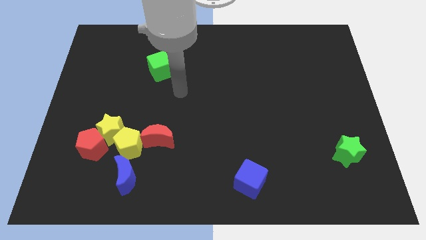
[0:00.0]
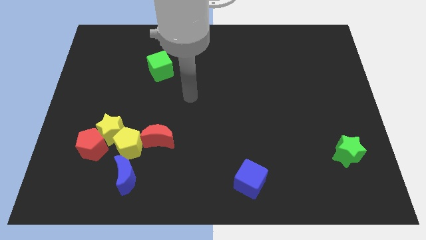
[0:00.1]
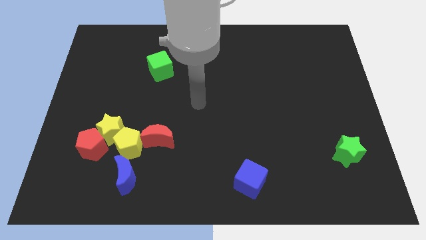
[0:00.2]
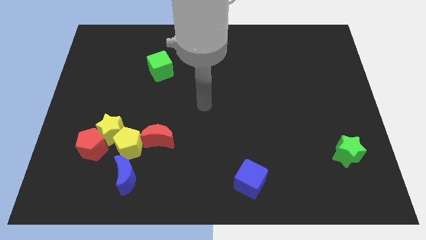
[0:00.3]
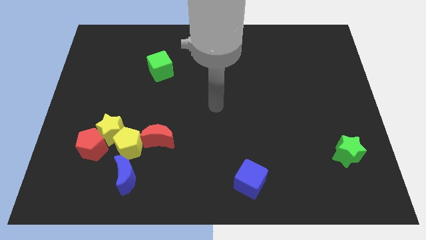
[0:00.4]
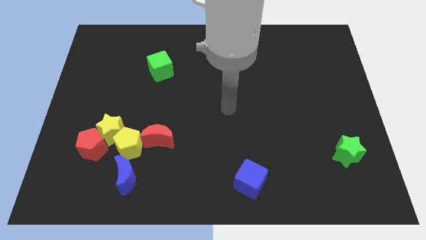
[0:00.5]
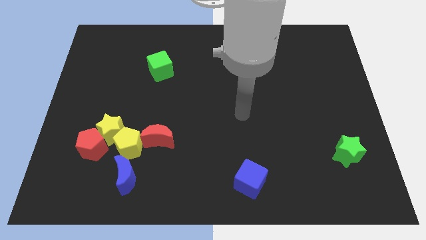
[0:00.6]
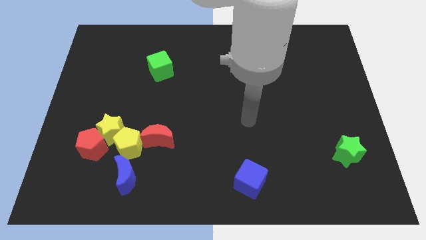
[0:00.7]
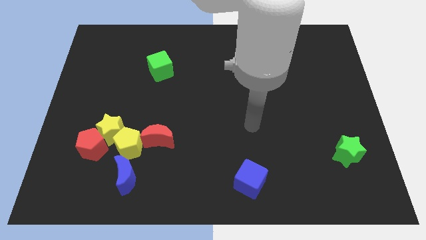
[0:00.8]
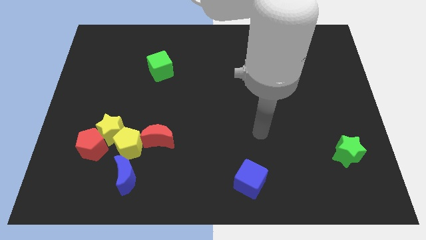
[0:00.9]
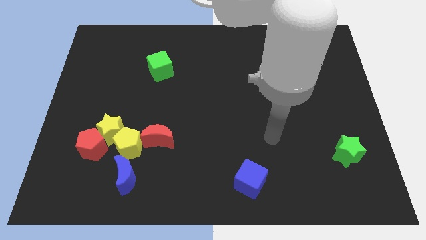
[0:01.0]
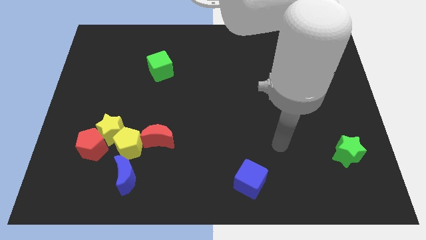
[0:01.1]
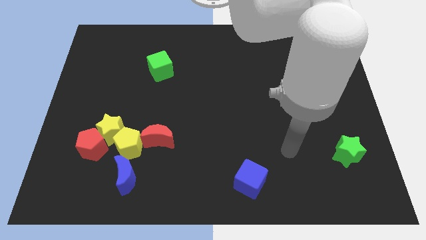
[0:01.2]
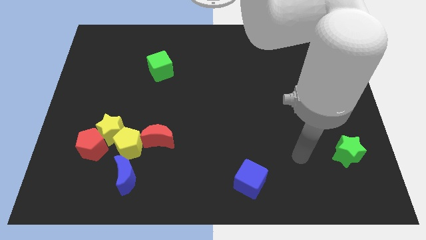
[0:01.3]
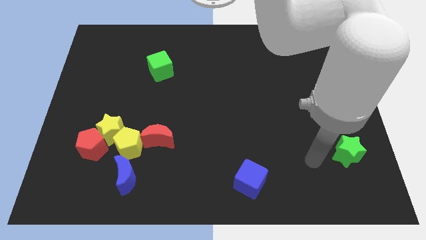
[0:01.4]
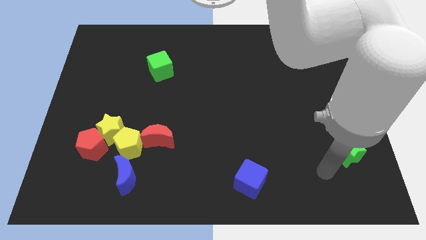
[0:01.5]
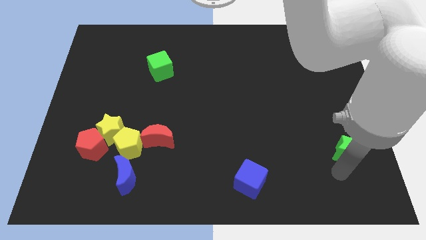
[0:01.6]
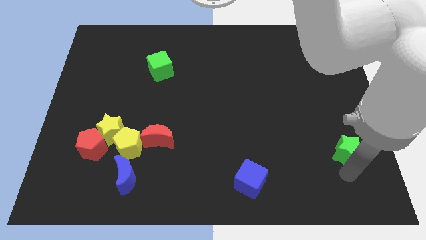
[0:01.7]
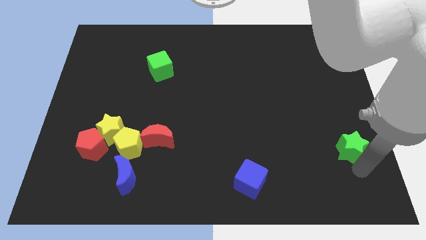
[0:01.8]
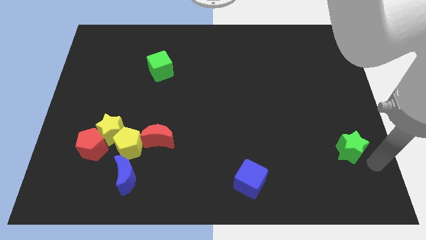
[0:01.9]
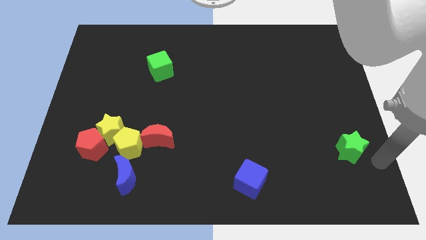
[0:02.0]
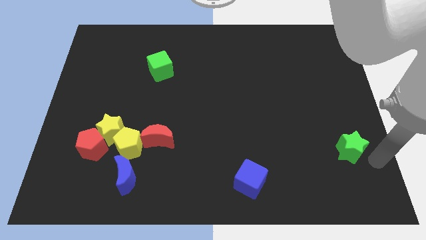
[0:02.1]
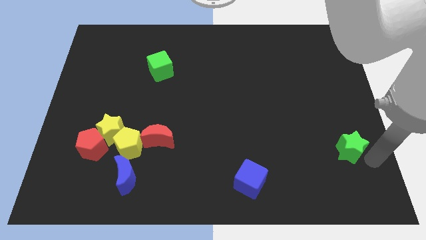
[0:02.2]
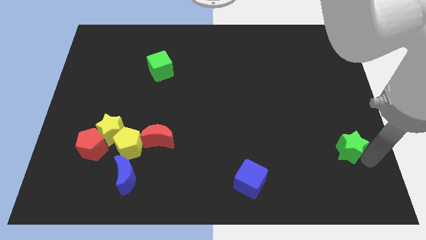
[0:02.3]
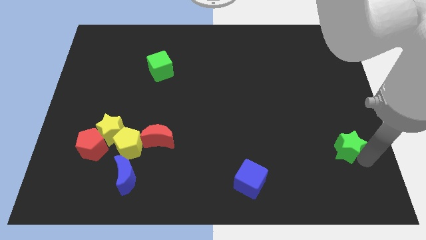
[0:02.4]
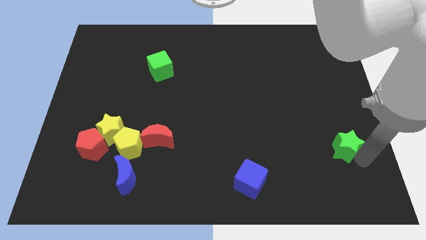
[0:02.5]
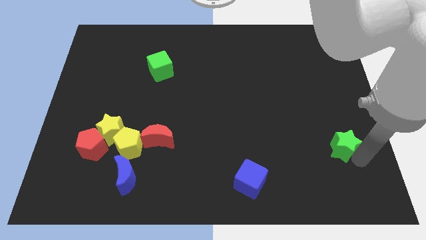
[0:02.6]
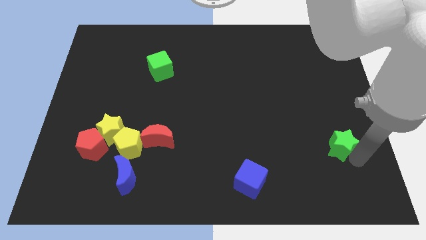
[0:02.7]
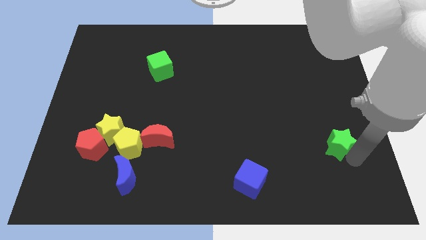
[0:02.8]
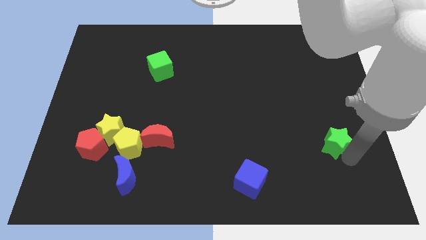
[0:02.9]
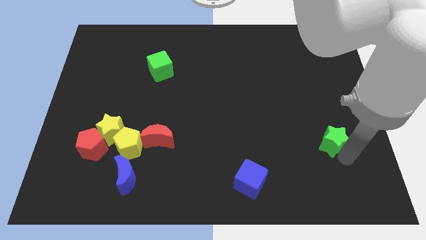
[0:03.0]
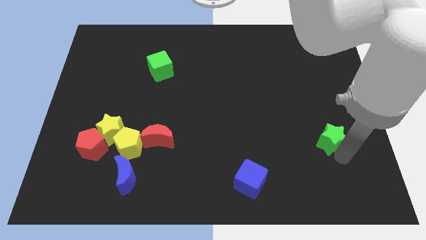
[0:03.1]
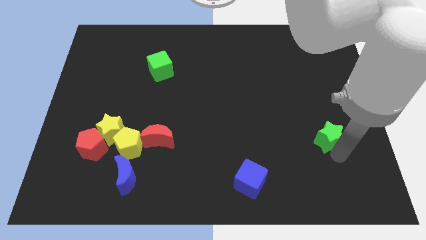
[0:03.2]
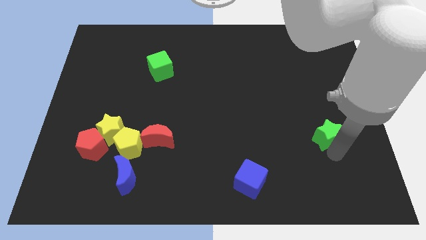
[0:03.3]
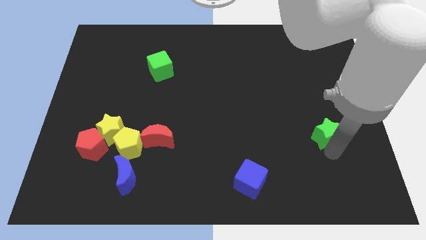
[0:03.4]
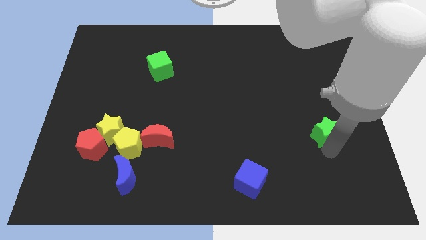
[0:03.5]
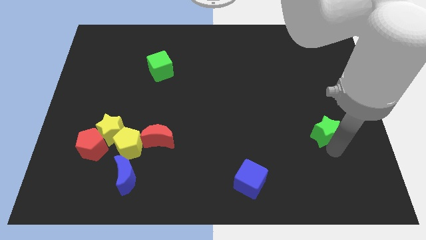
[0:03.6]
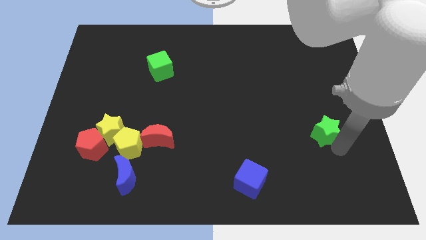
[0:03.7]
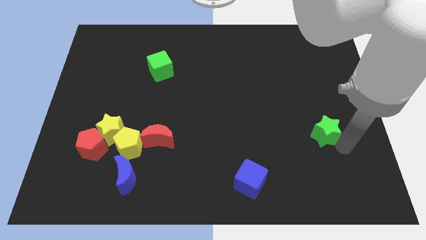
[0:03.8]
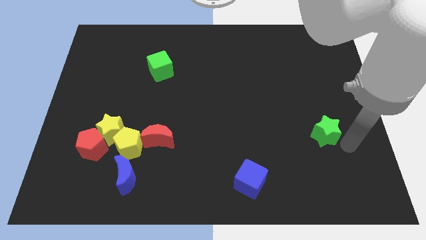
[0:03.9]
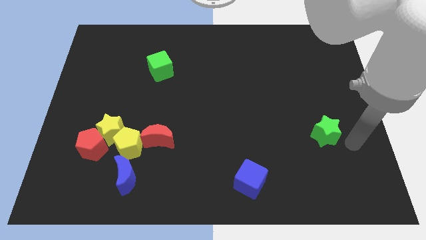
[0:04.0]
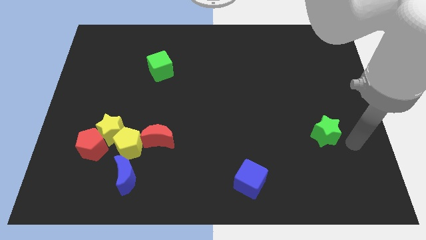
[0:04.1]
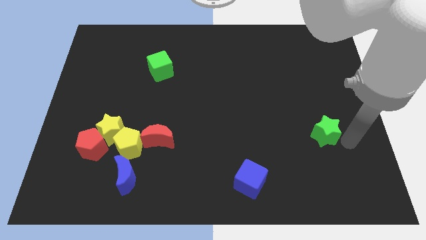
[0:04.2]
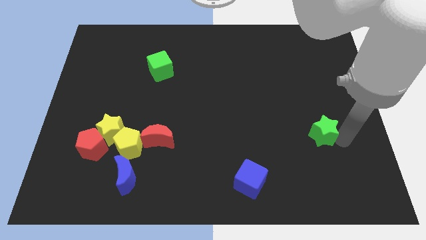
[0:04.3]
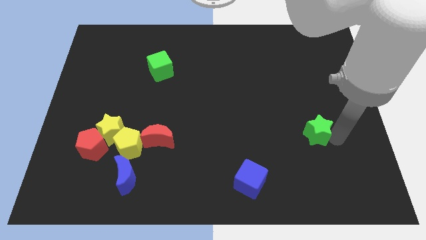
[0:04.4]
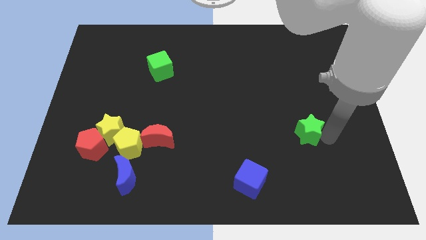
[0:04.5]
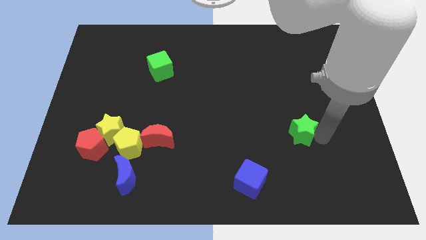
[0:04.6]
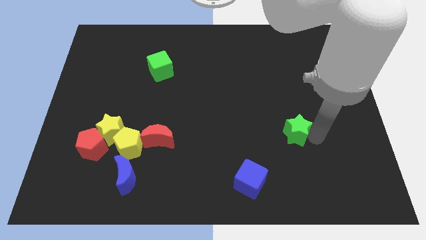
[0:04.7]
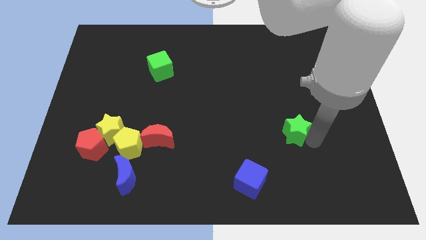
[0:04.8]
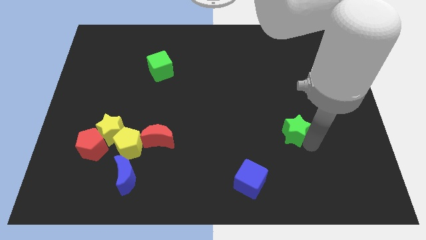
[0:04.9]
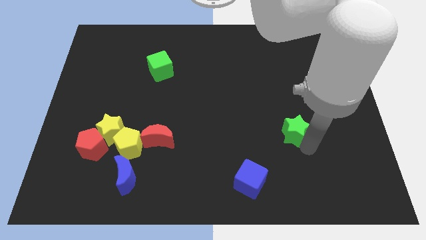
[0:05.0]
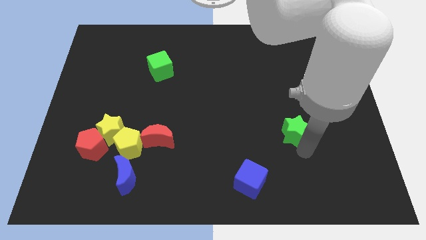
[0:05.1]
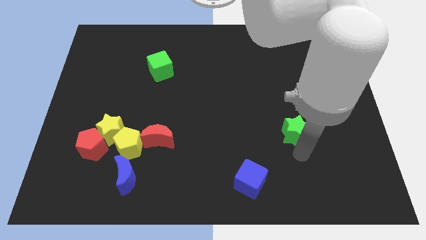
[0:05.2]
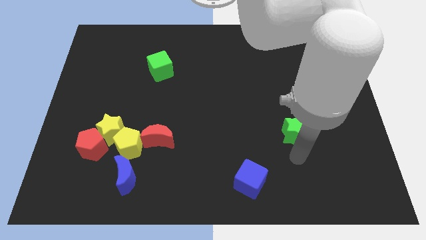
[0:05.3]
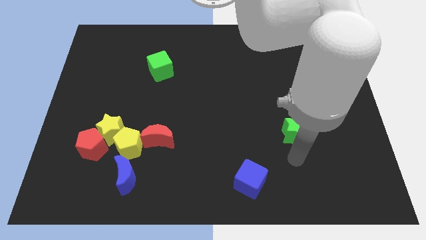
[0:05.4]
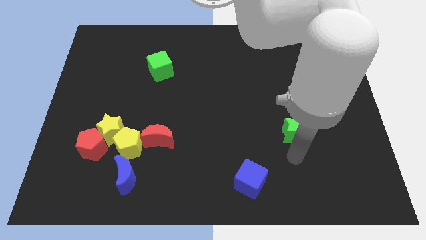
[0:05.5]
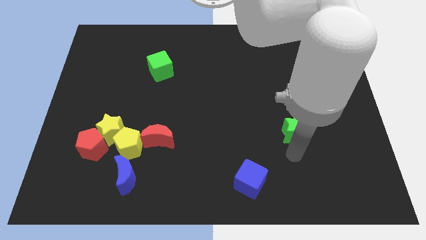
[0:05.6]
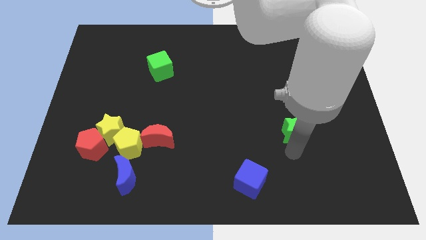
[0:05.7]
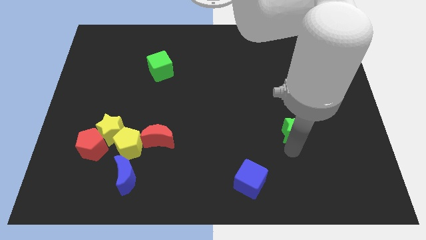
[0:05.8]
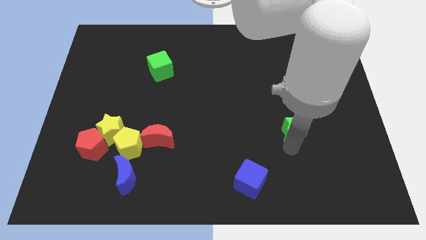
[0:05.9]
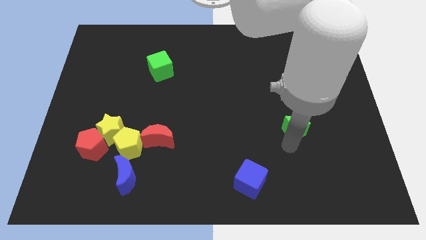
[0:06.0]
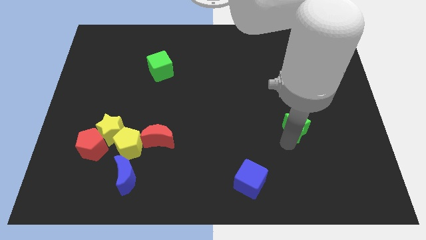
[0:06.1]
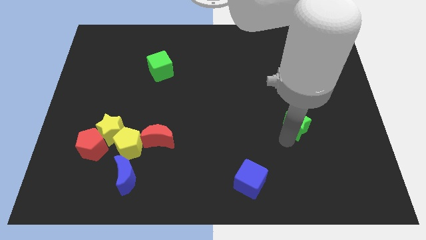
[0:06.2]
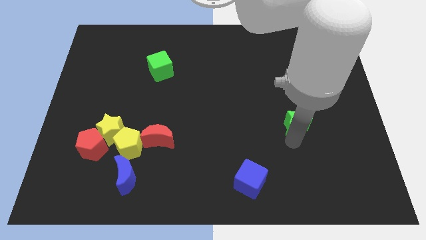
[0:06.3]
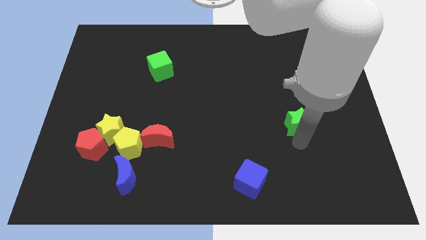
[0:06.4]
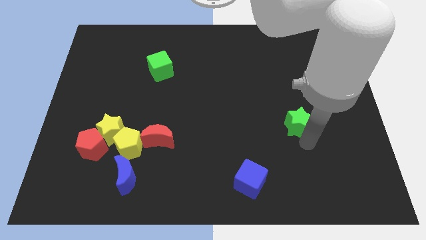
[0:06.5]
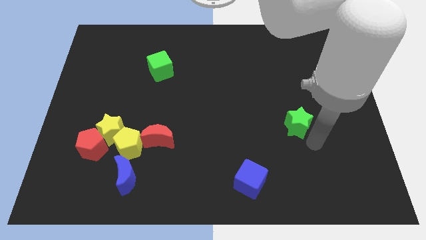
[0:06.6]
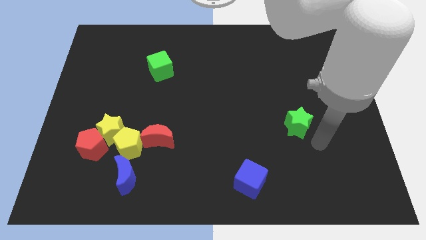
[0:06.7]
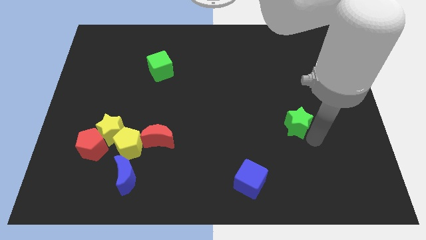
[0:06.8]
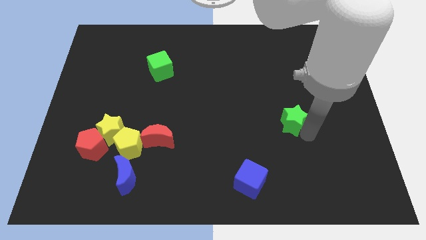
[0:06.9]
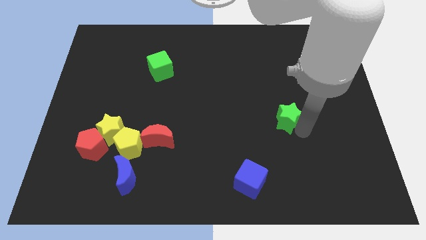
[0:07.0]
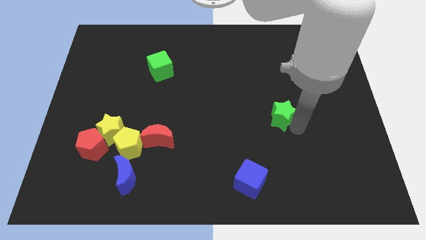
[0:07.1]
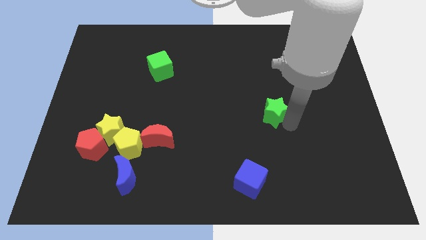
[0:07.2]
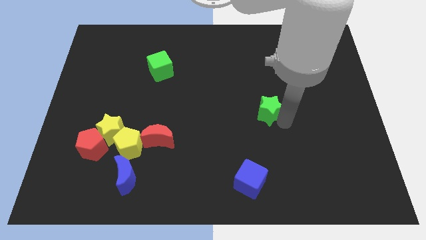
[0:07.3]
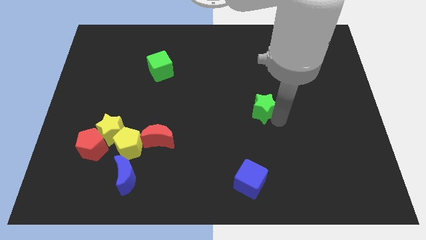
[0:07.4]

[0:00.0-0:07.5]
slide the green star up and left diagonally

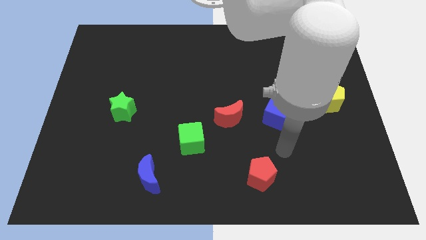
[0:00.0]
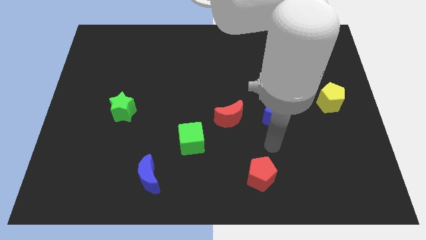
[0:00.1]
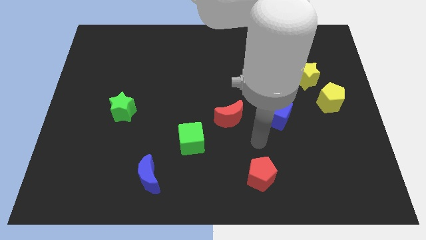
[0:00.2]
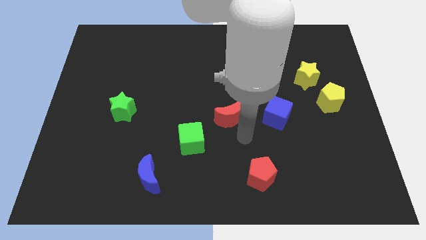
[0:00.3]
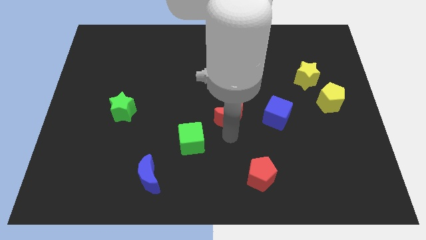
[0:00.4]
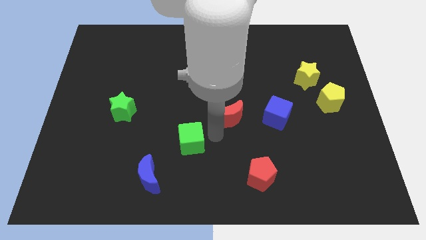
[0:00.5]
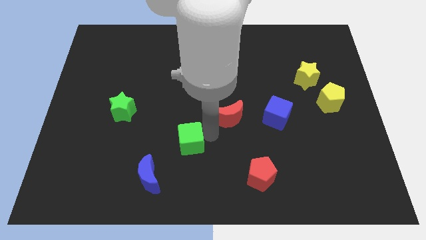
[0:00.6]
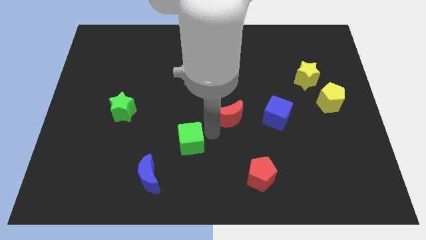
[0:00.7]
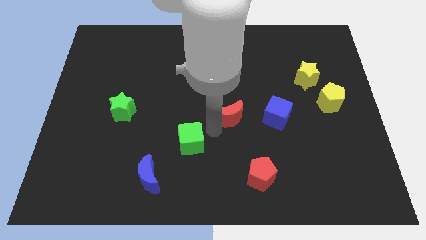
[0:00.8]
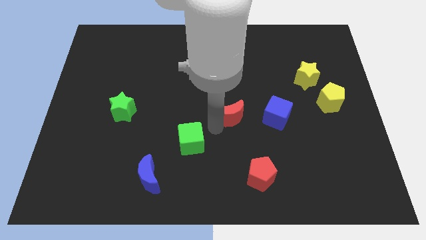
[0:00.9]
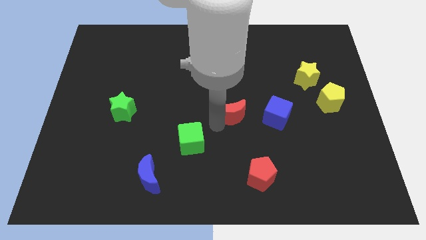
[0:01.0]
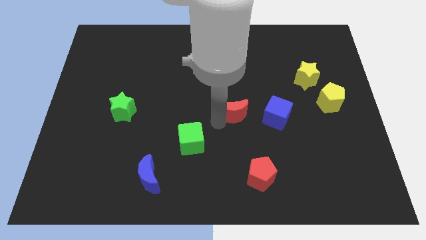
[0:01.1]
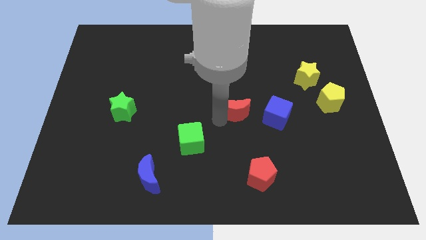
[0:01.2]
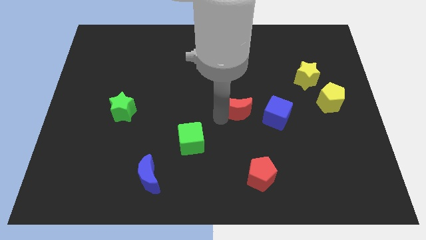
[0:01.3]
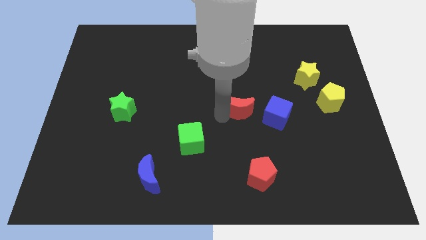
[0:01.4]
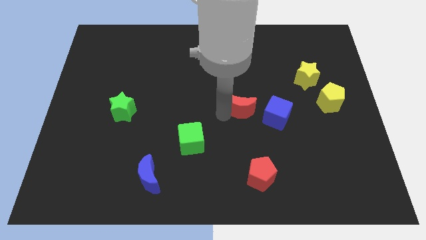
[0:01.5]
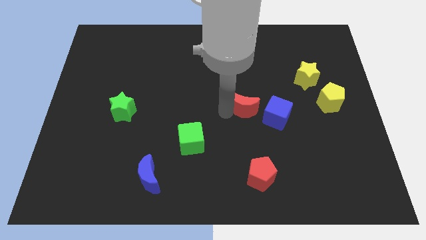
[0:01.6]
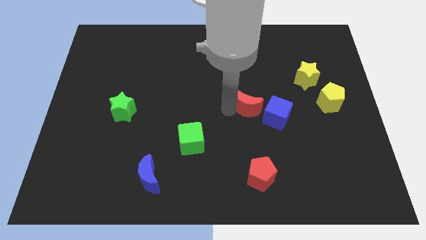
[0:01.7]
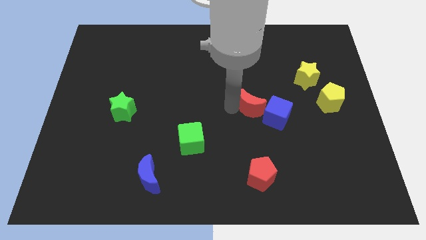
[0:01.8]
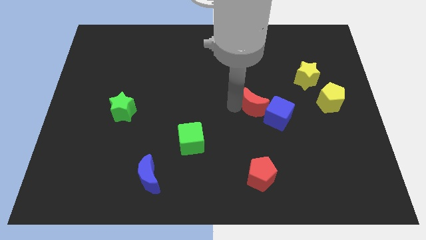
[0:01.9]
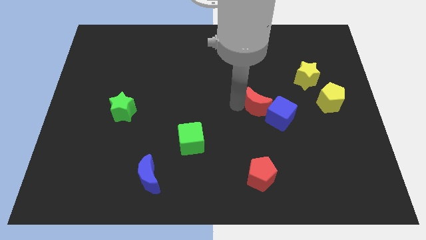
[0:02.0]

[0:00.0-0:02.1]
slide the red moon somewhat diagonally up and to the right
